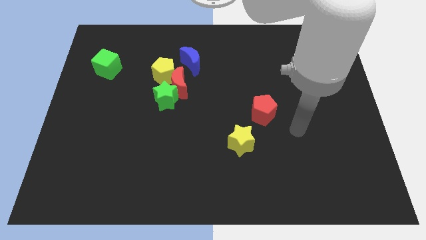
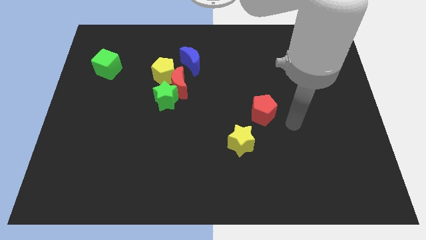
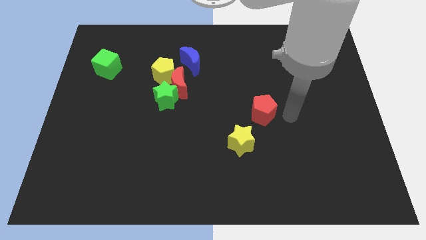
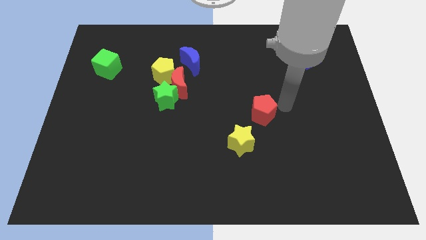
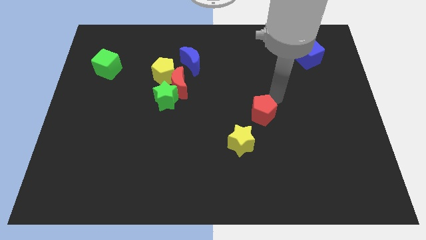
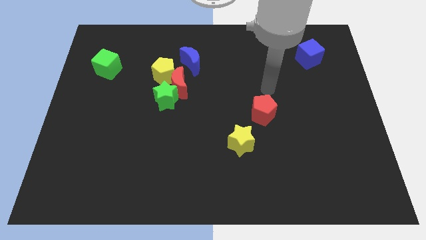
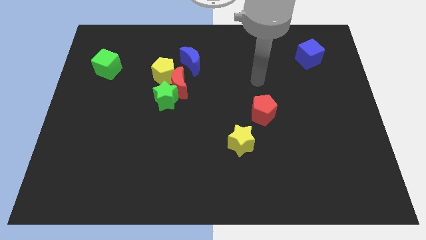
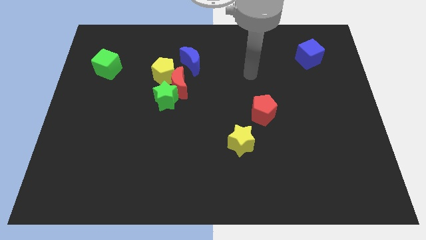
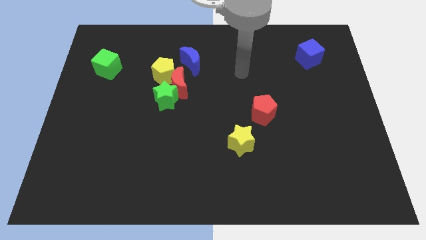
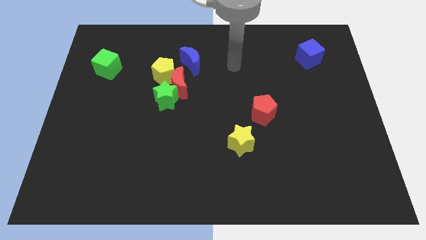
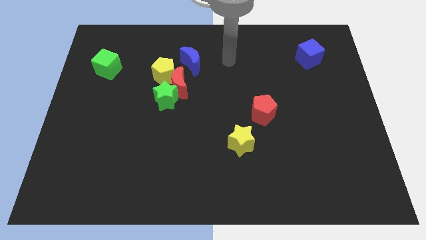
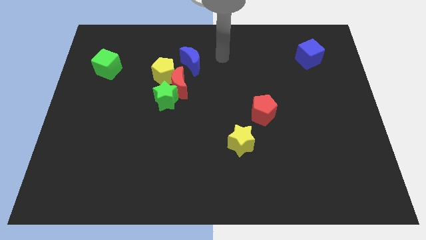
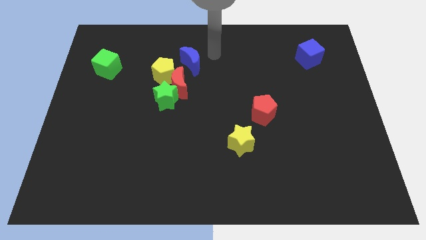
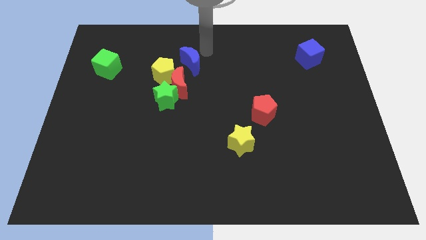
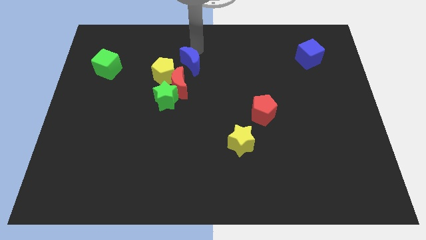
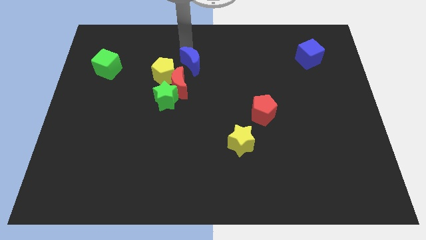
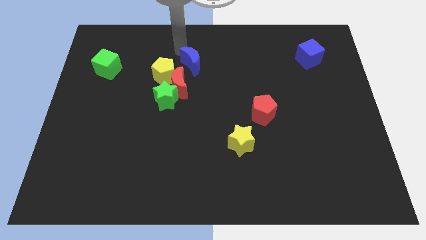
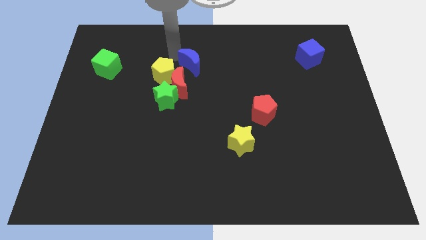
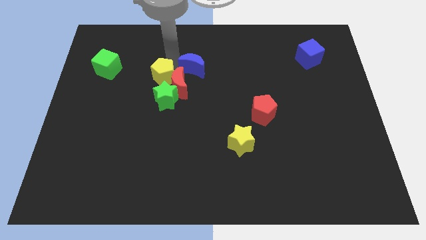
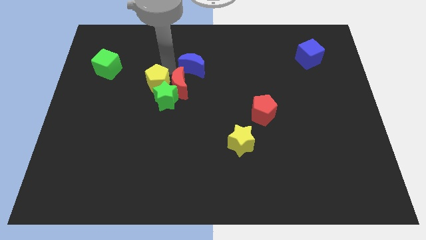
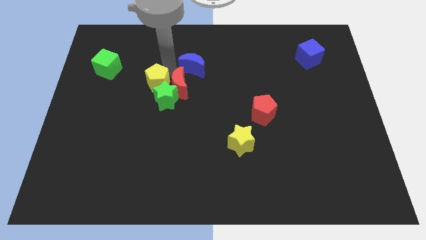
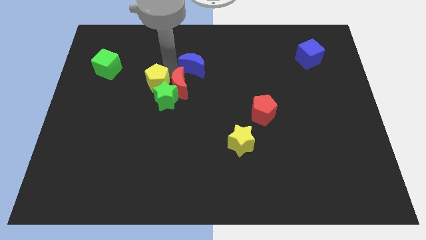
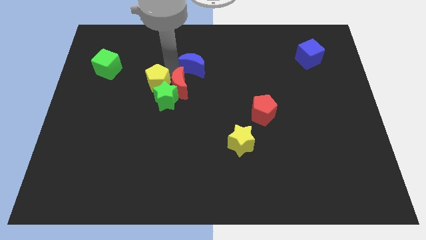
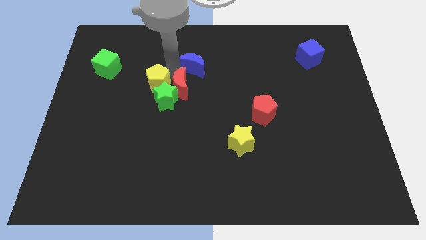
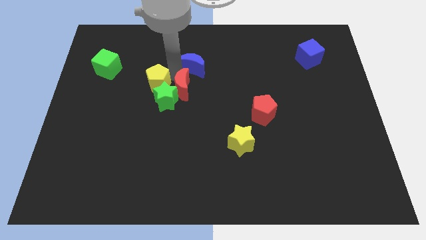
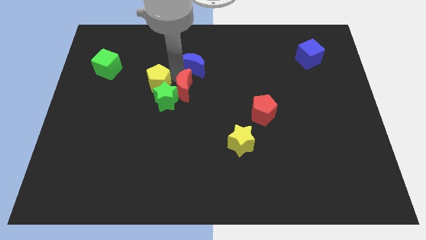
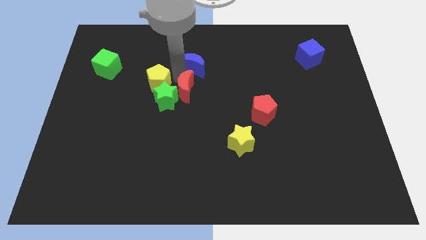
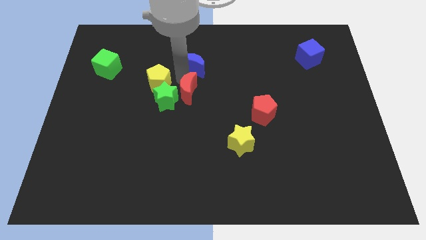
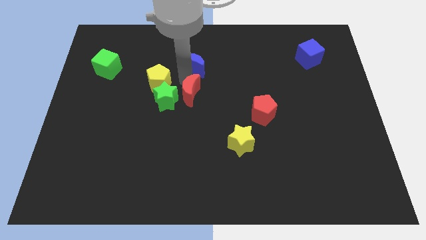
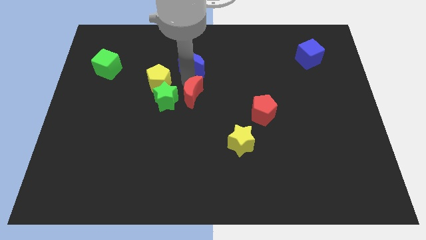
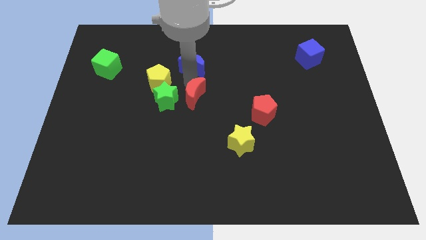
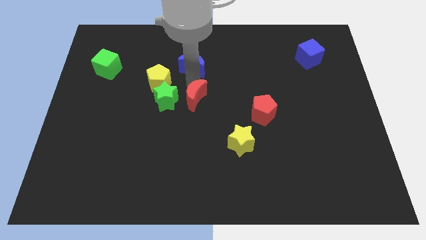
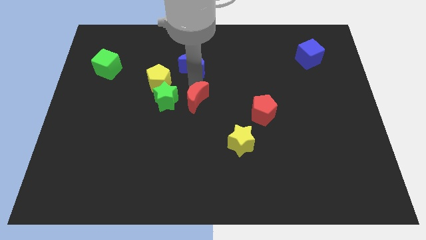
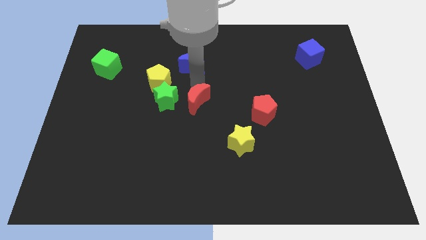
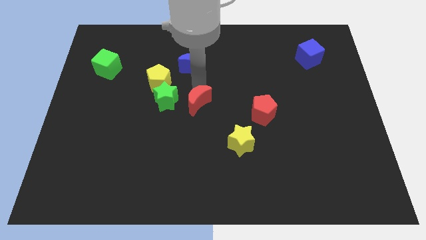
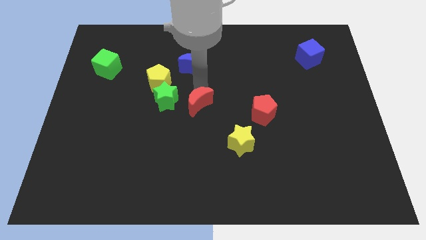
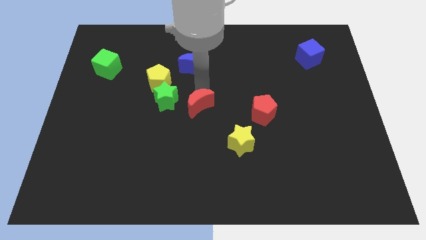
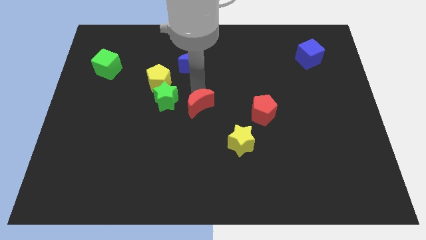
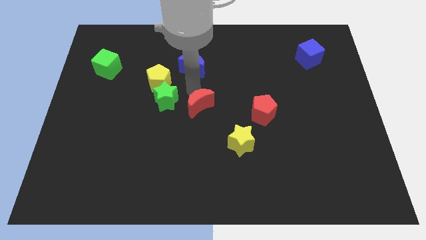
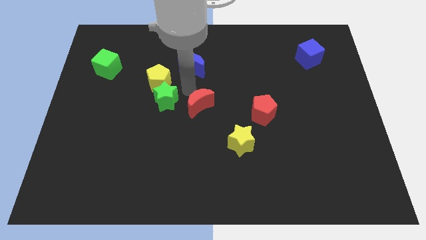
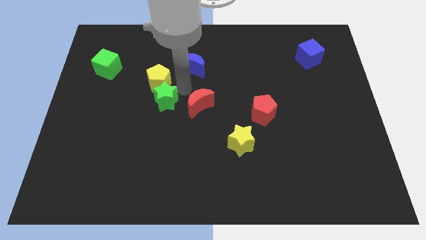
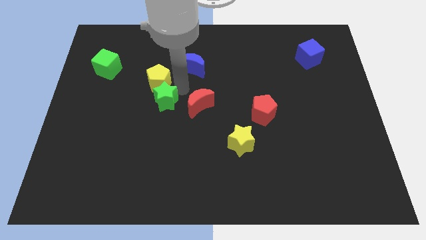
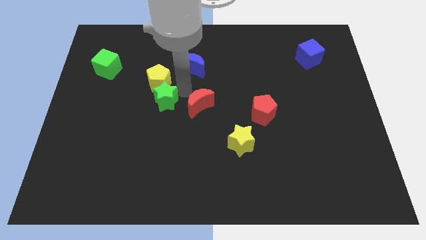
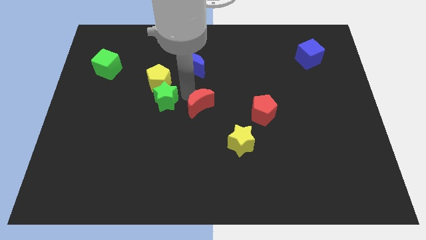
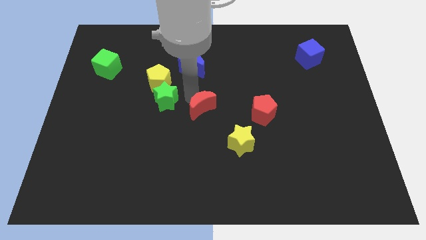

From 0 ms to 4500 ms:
separate the red moon from the group of blocks

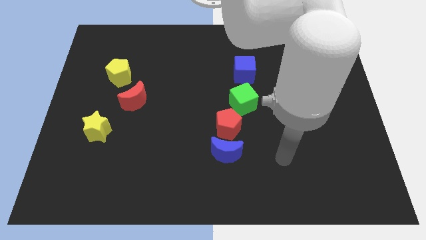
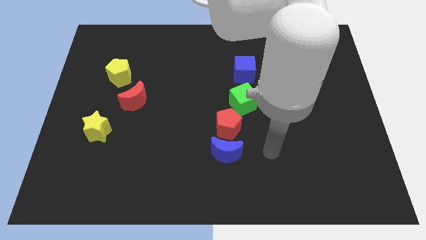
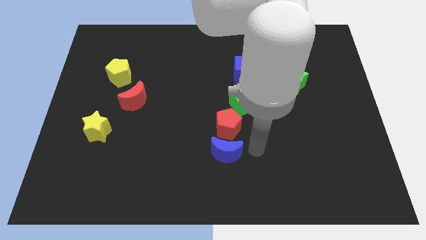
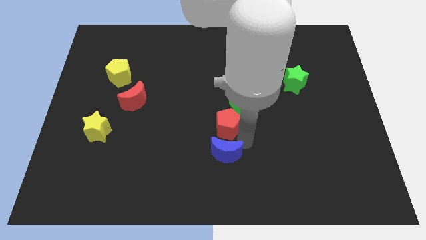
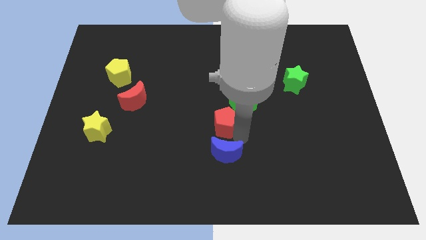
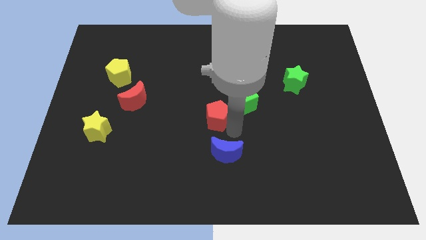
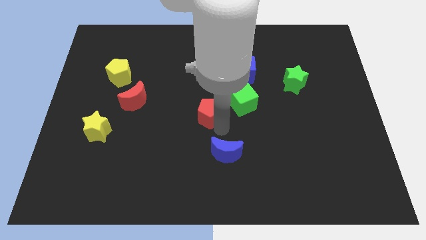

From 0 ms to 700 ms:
separate the blue moon from the red pentagon

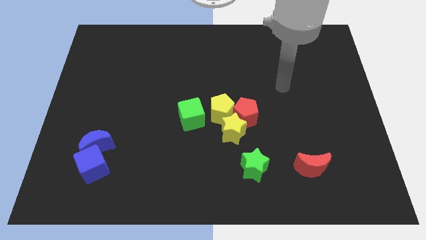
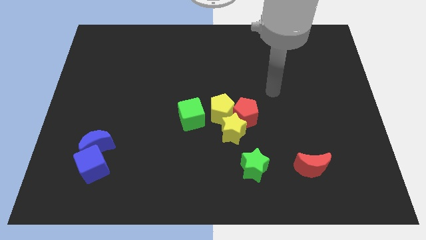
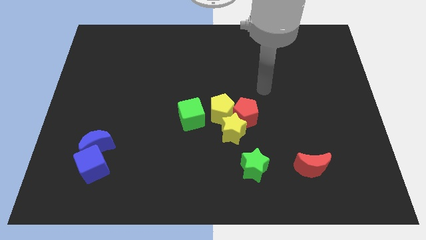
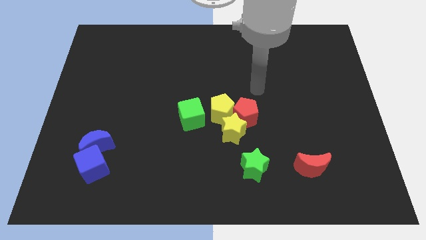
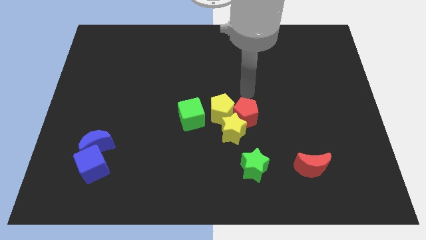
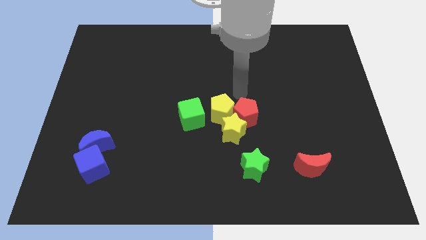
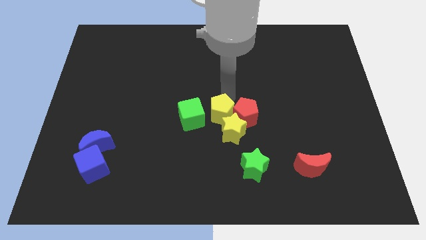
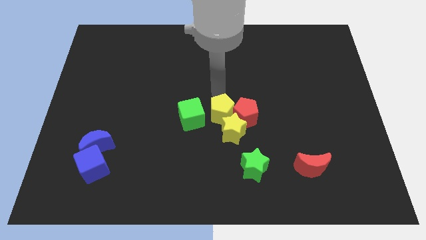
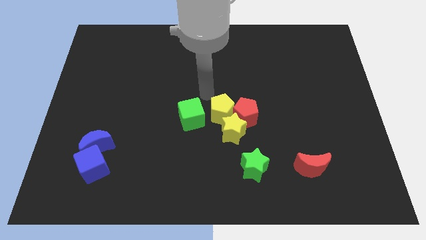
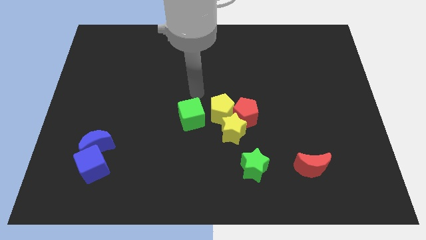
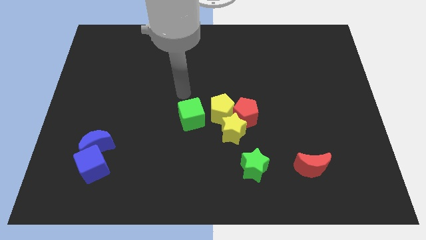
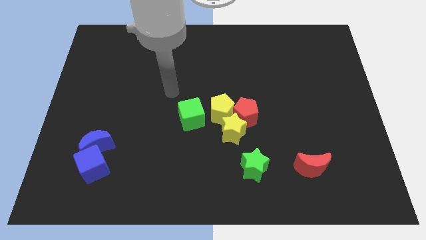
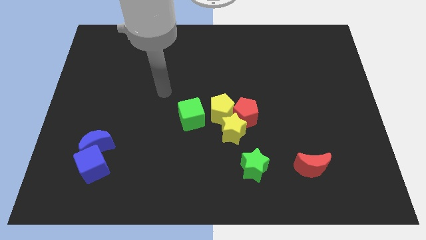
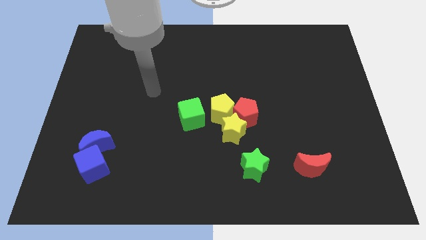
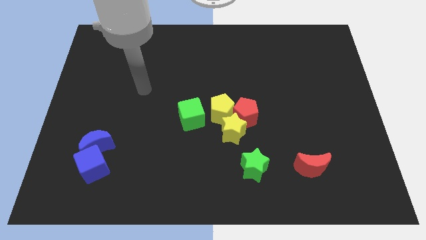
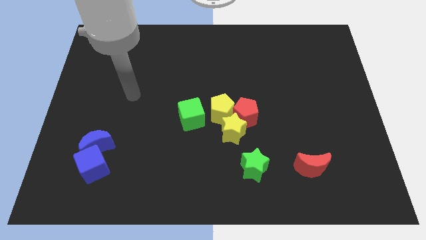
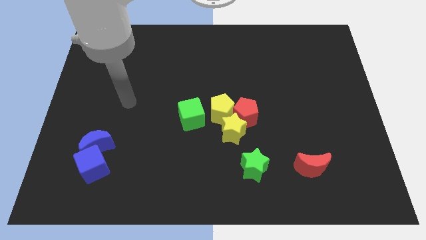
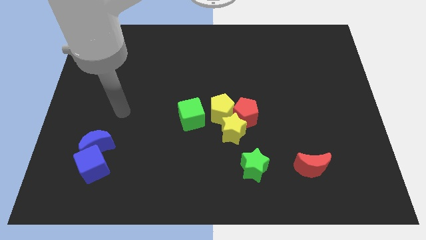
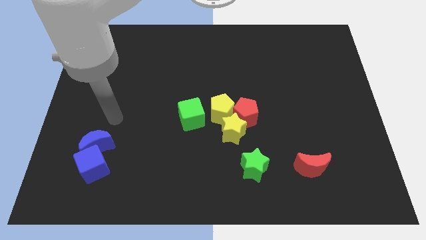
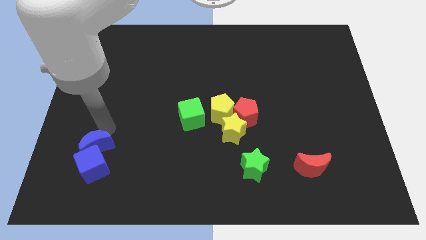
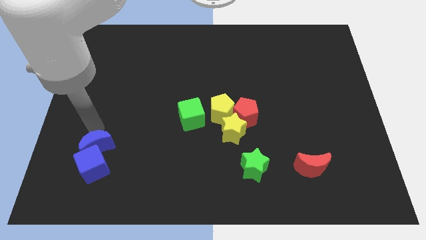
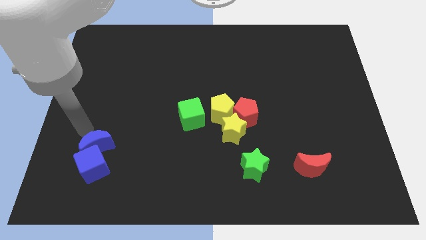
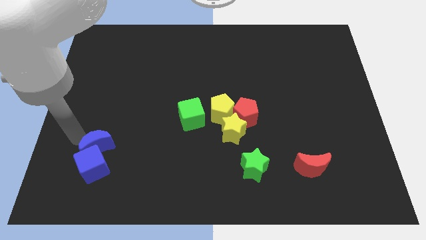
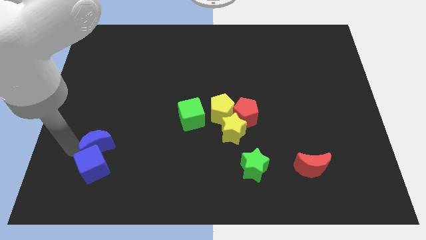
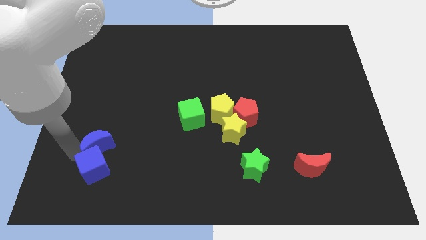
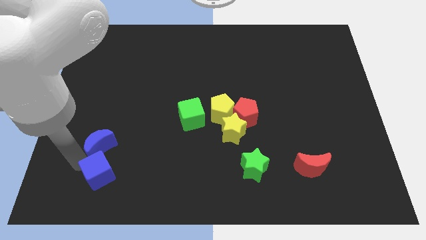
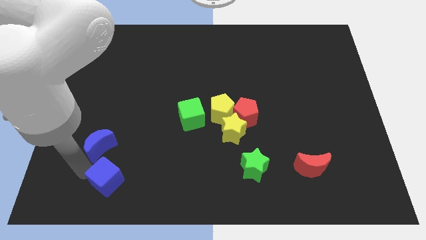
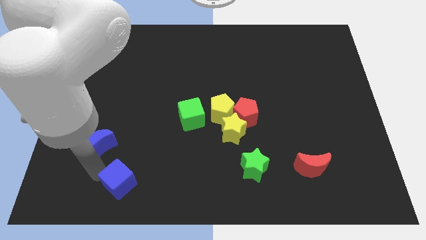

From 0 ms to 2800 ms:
move the blue moon away from the blue cube

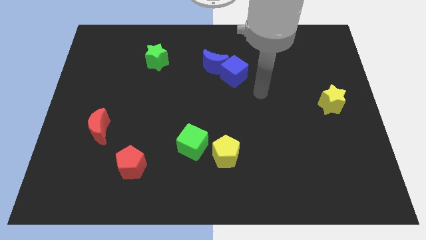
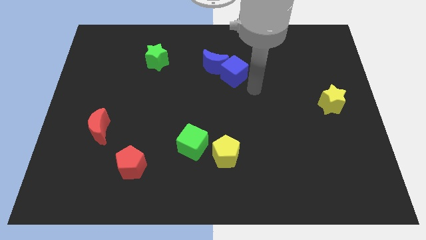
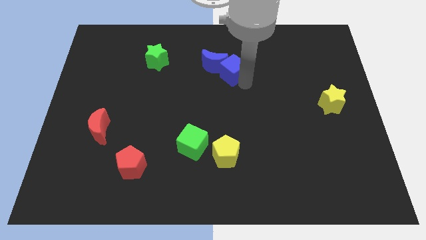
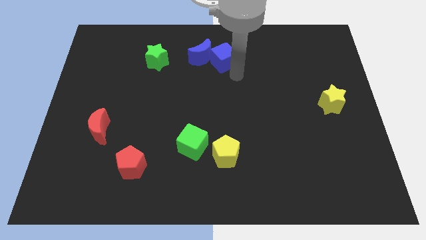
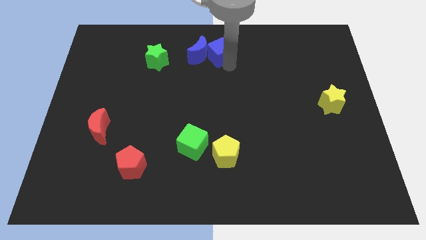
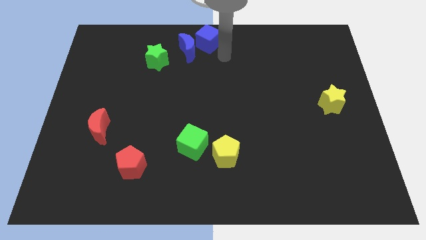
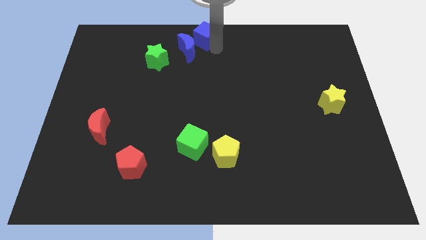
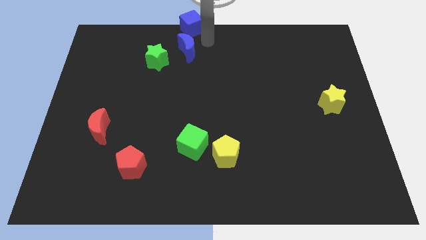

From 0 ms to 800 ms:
separate the blue moon from the blue cube

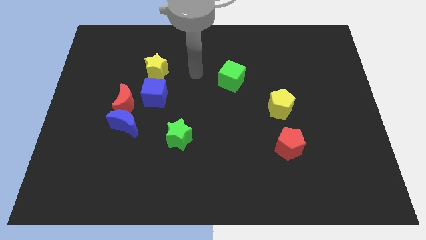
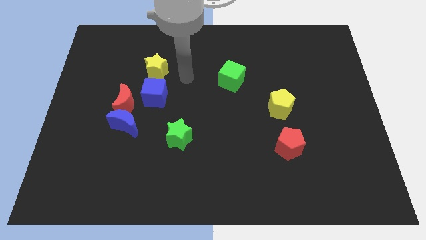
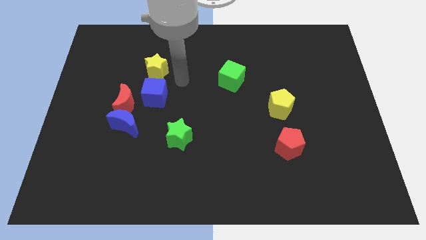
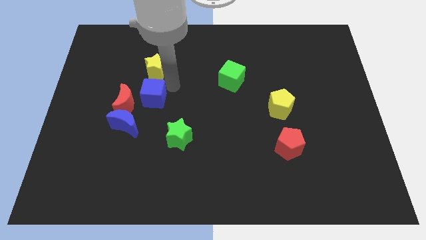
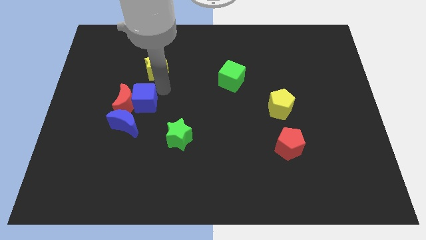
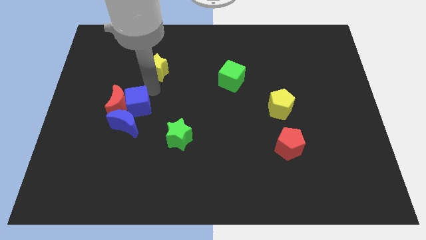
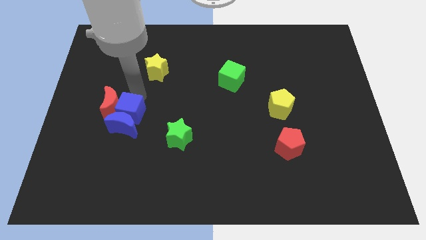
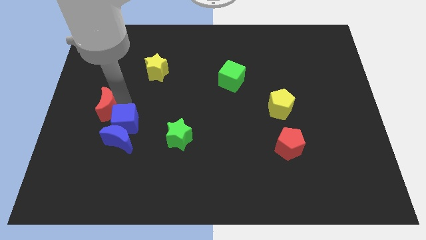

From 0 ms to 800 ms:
pull the blue moon apart from the red moon
